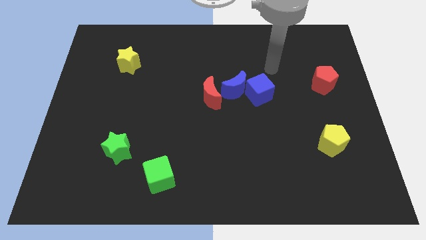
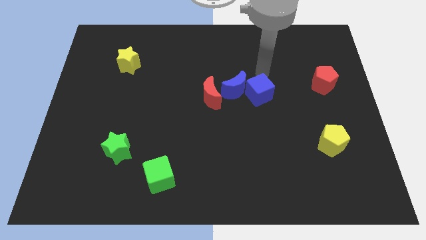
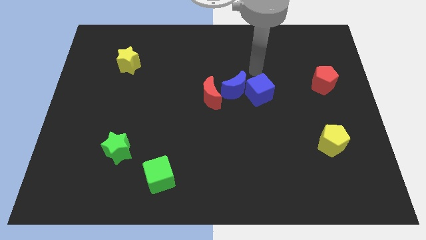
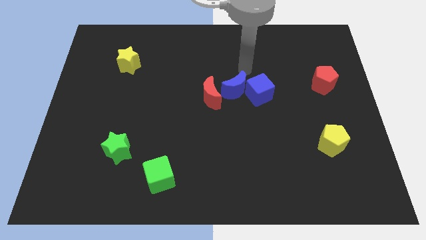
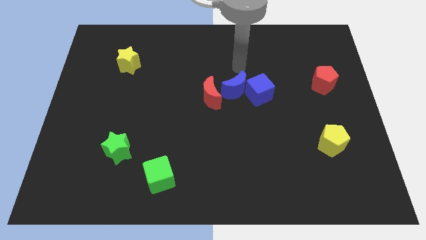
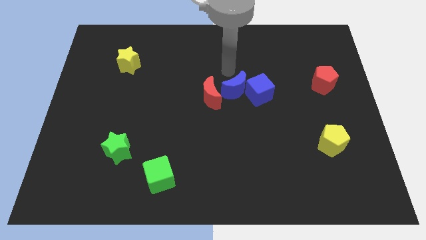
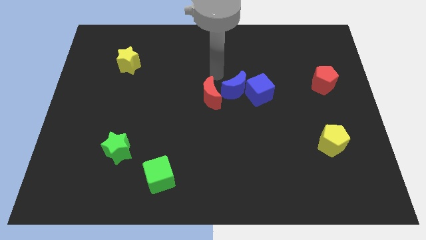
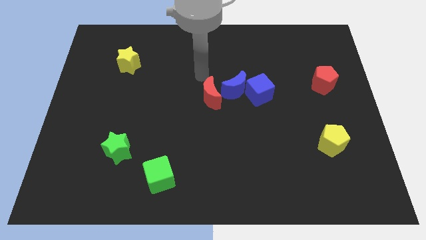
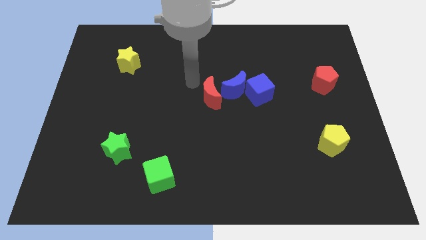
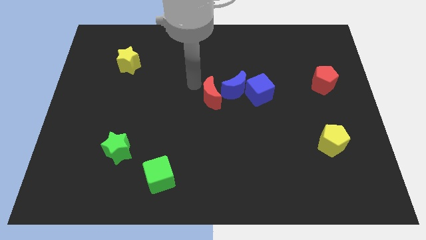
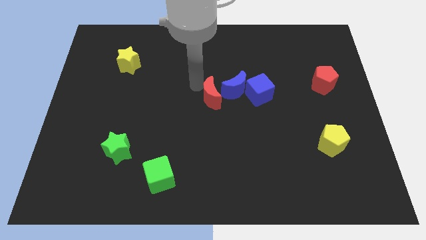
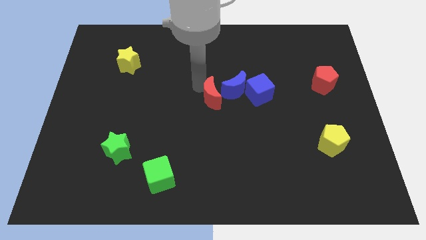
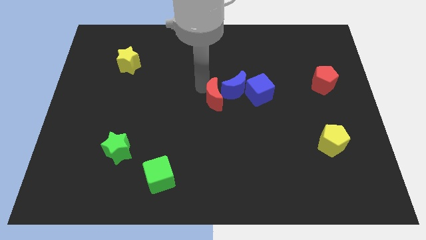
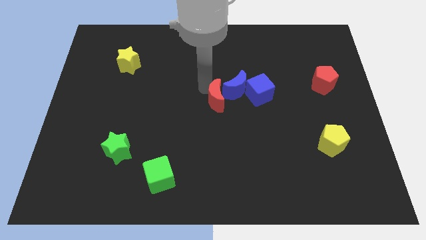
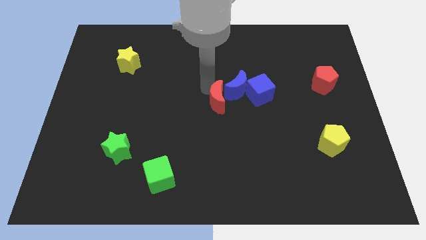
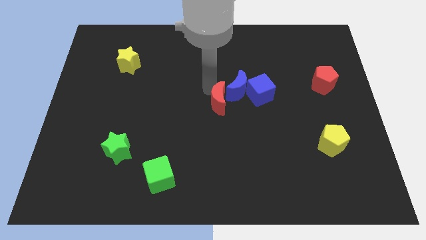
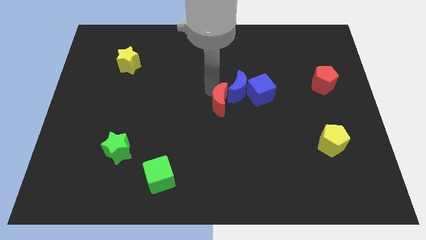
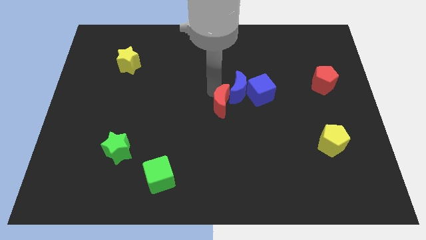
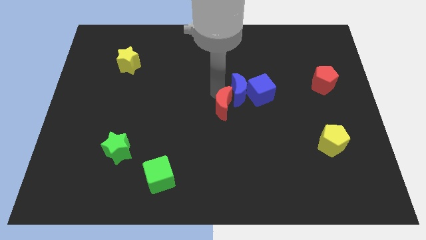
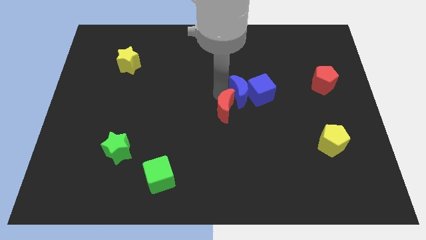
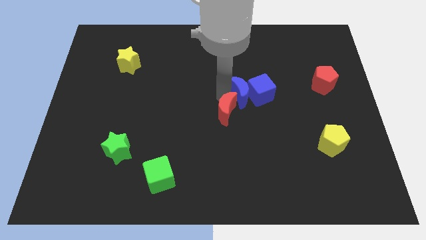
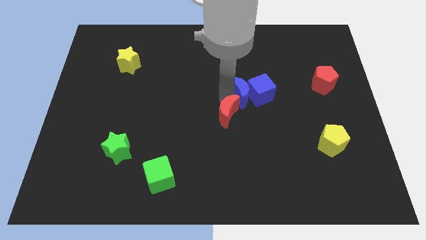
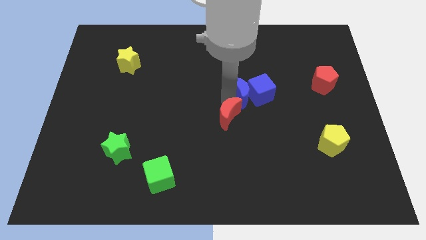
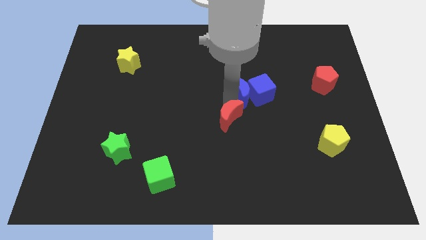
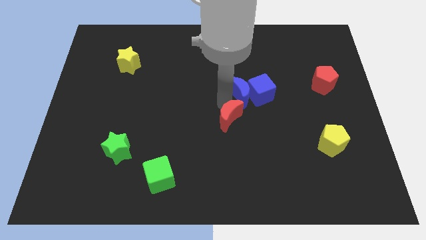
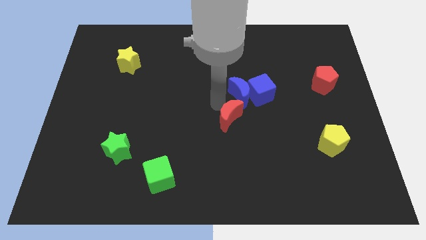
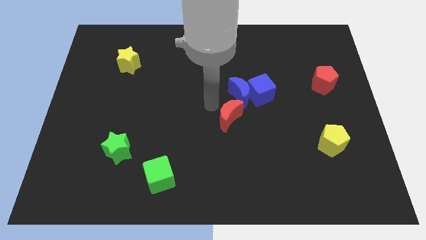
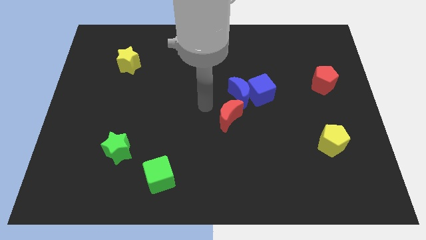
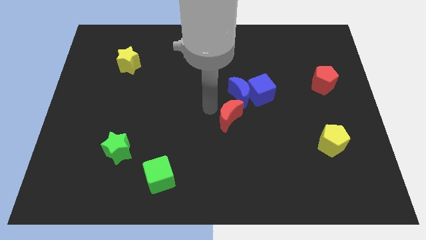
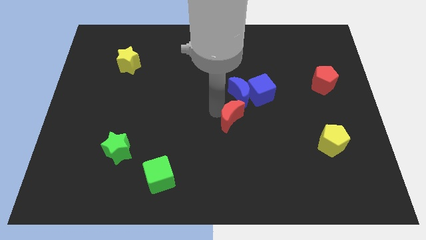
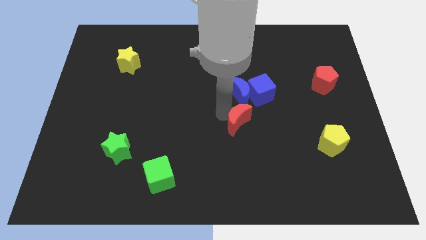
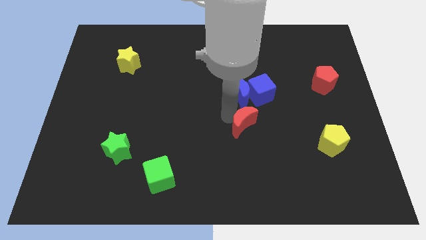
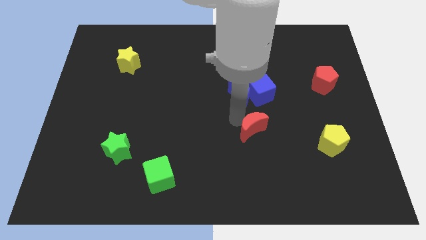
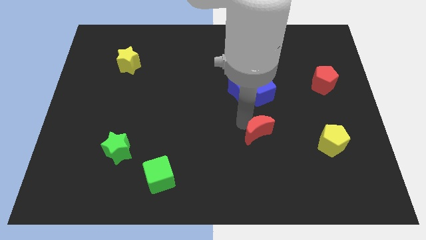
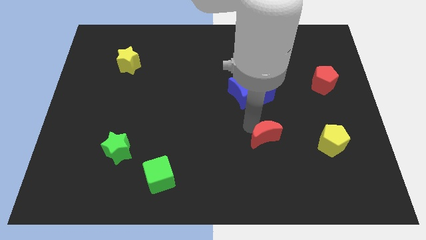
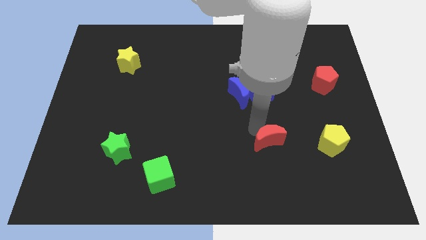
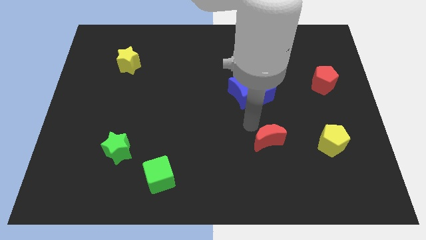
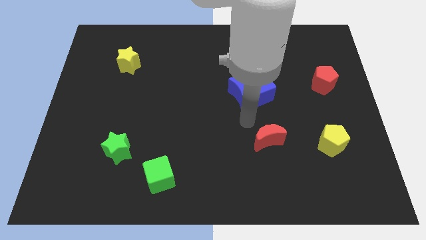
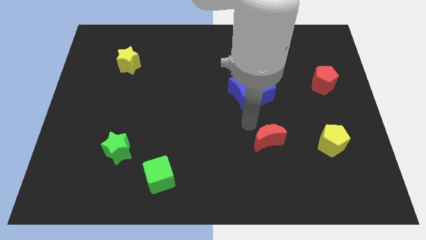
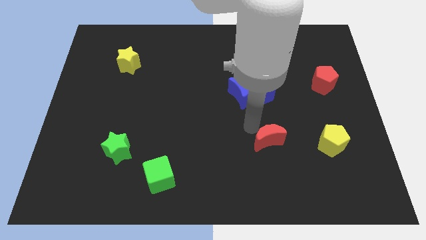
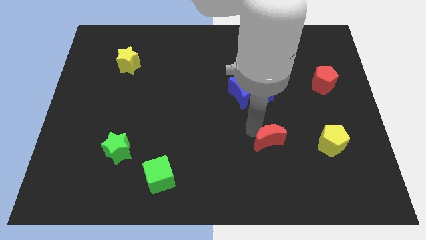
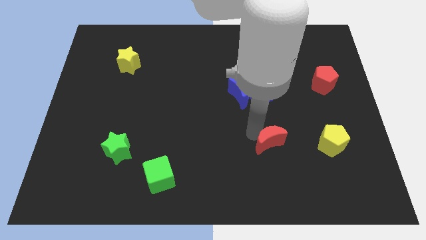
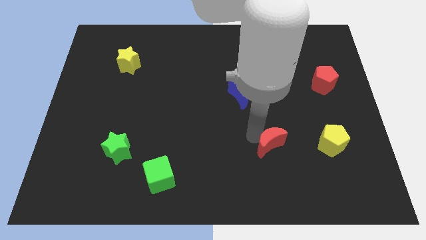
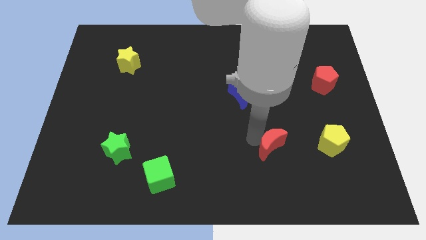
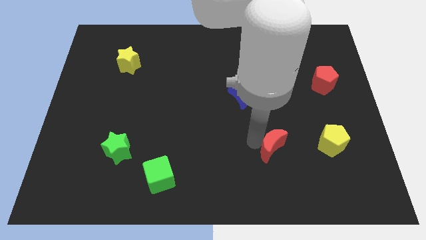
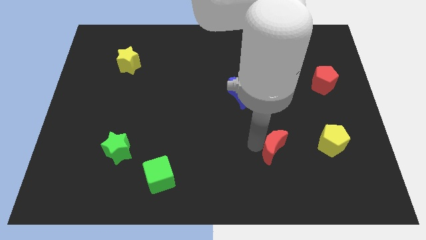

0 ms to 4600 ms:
slide the red moon downwards and then to the right

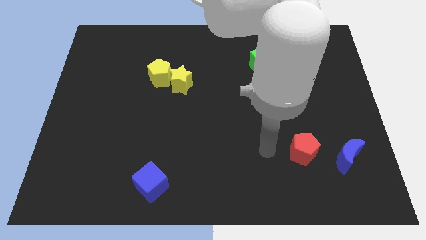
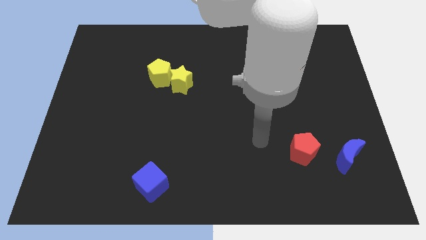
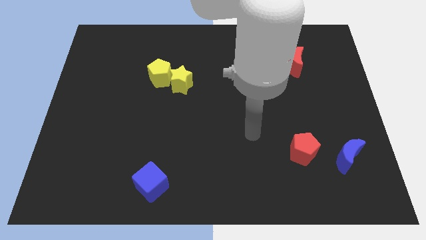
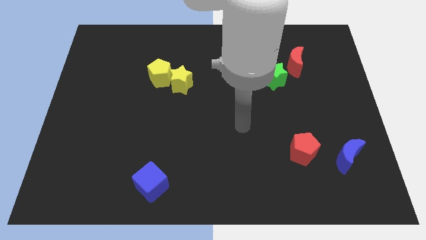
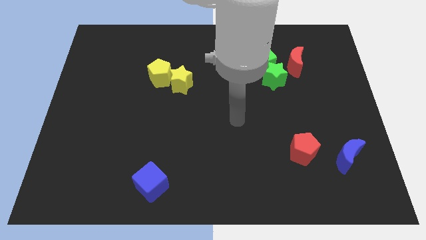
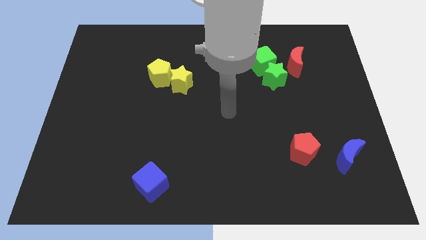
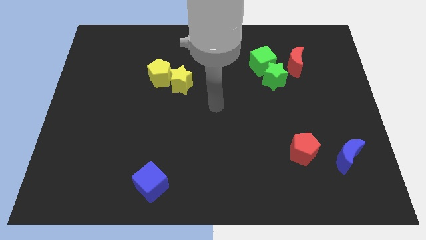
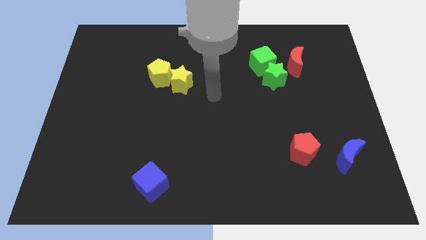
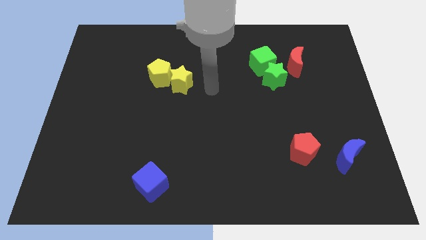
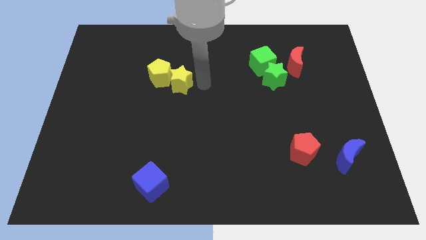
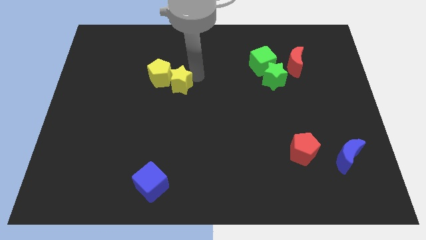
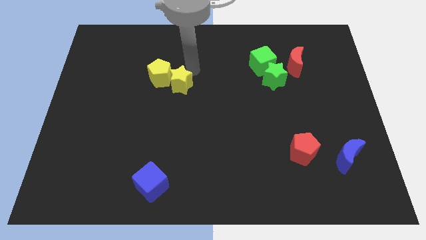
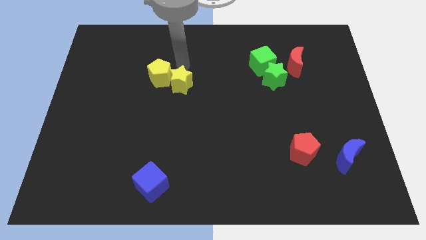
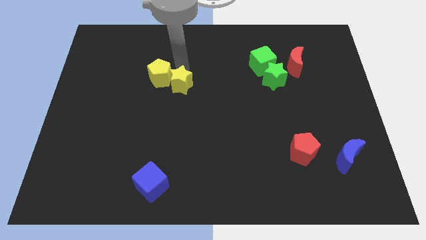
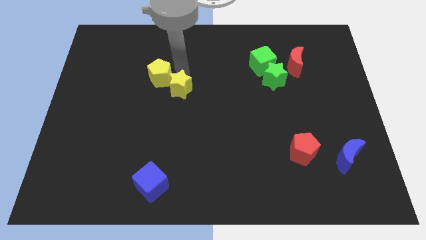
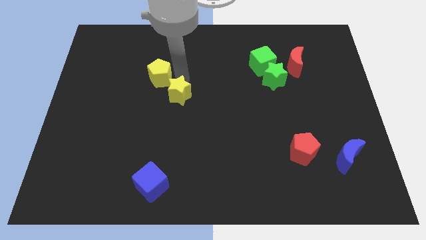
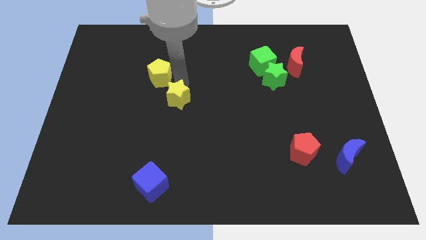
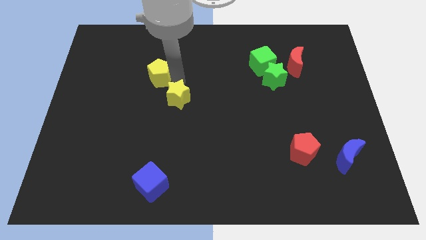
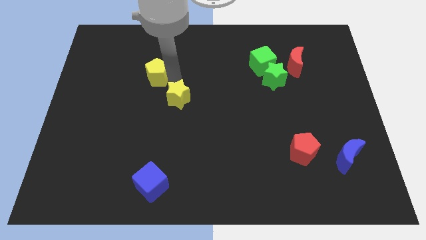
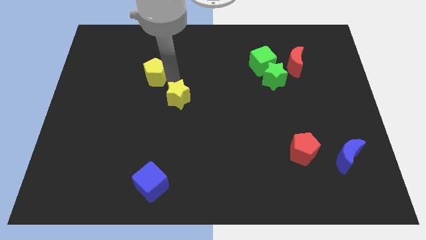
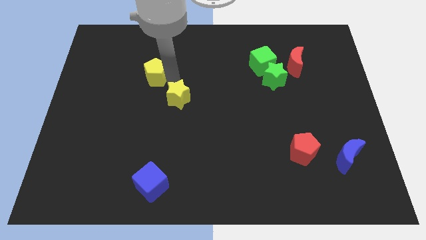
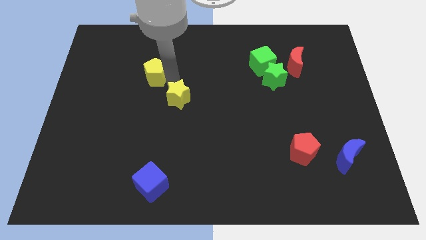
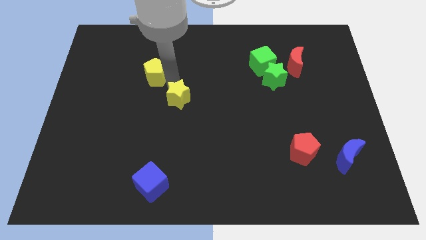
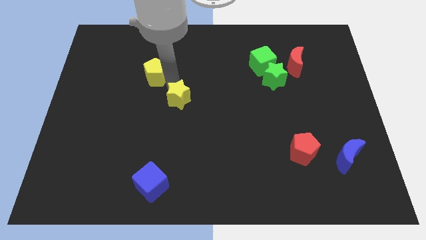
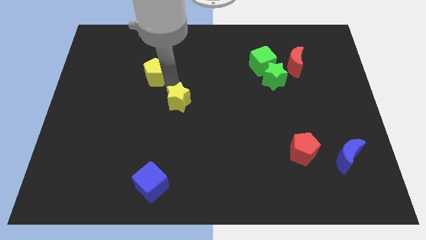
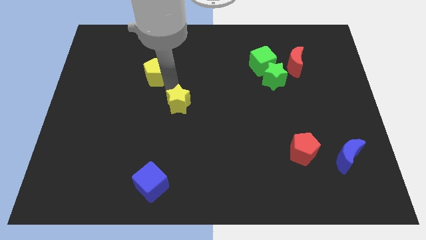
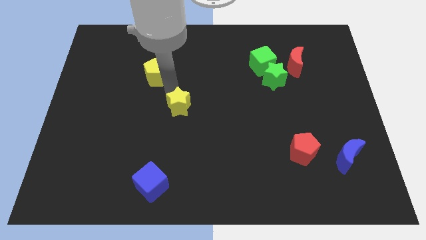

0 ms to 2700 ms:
slightly move the yellow star downwards

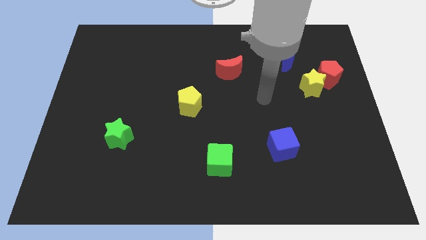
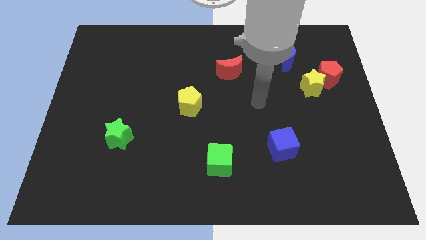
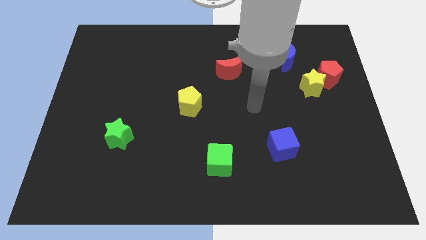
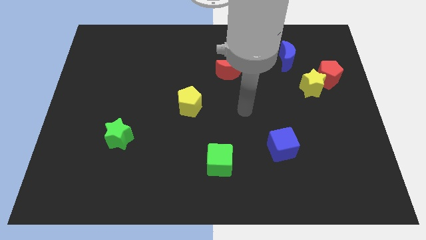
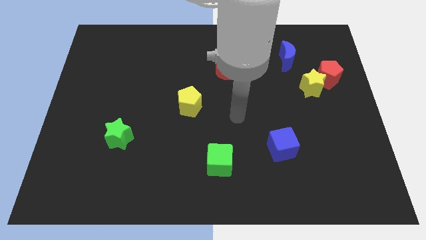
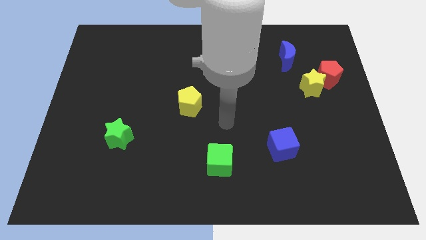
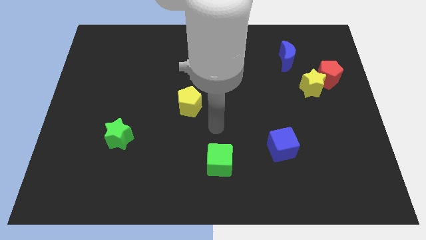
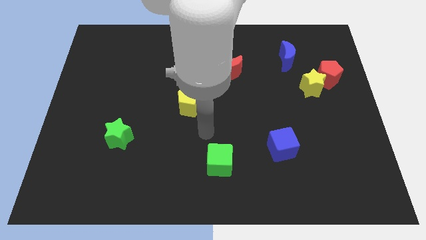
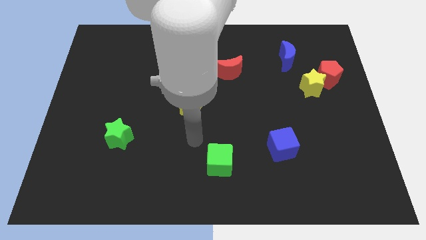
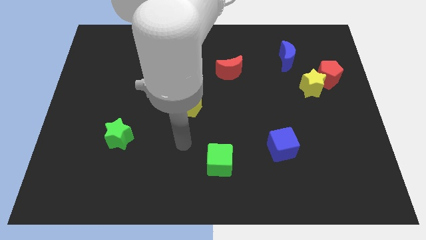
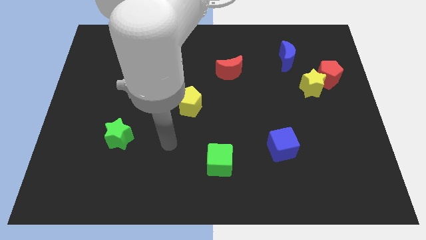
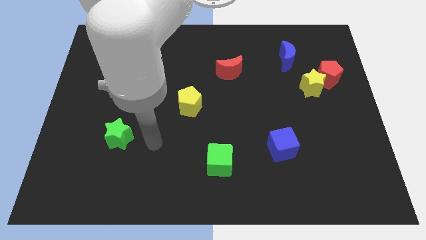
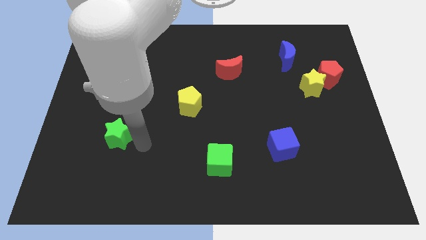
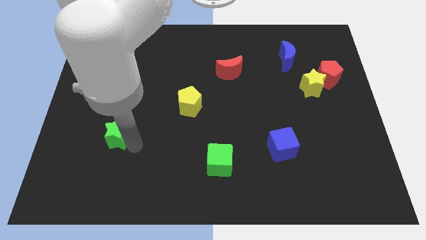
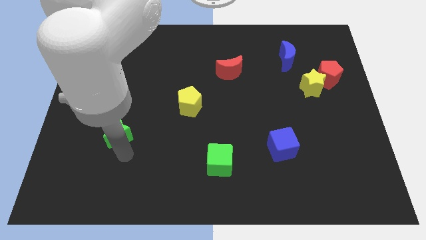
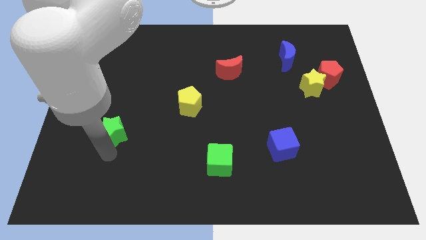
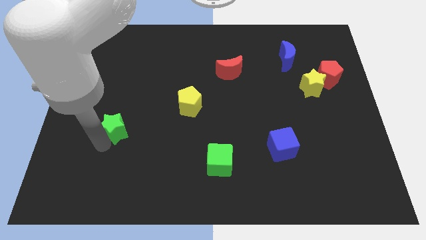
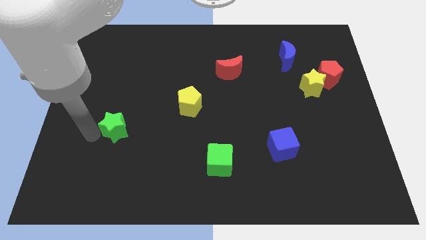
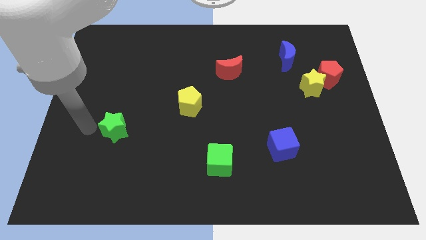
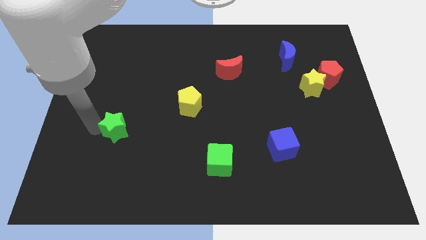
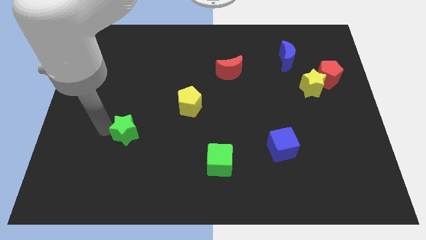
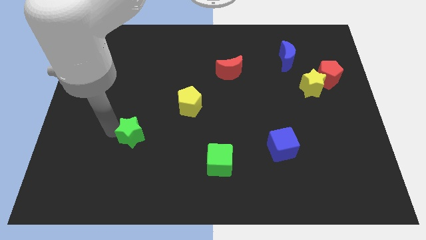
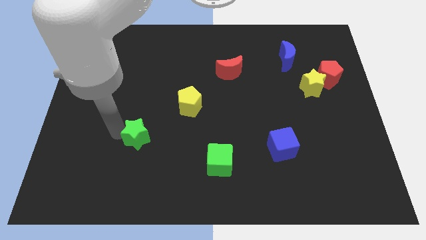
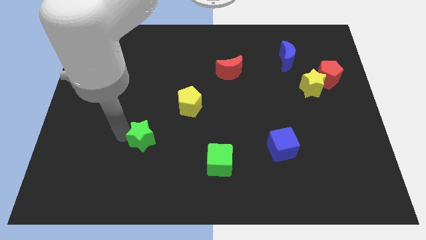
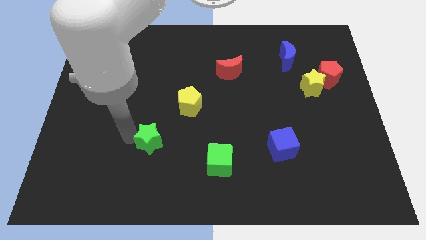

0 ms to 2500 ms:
push the green star right a bit
